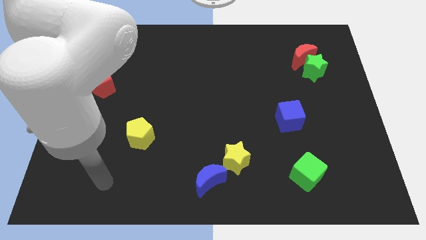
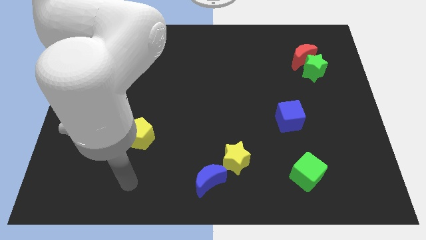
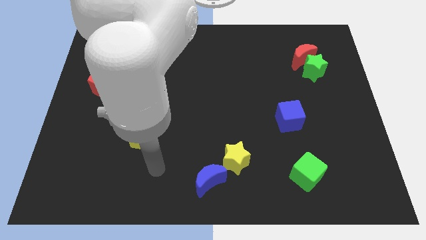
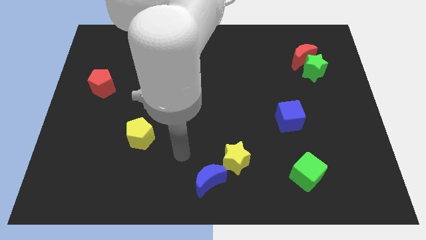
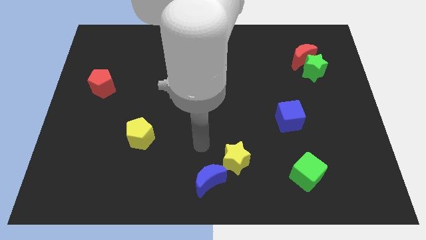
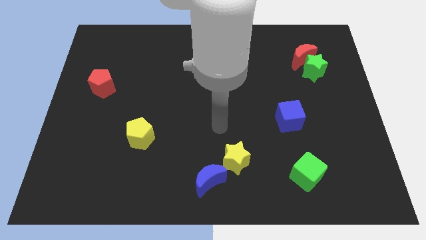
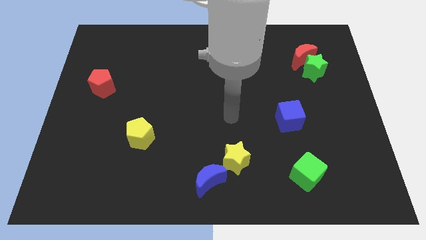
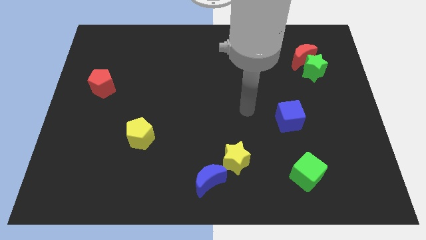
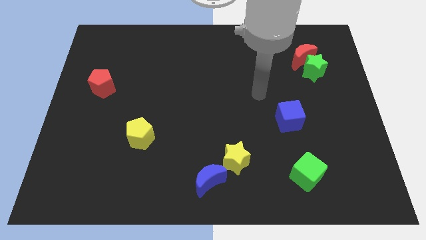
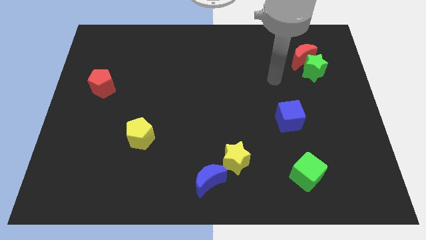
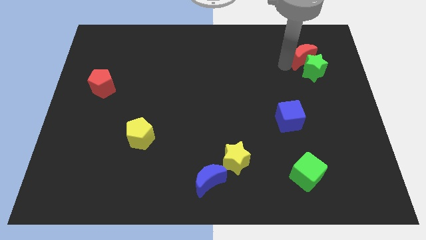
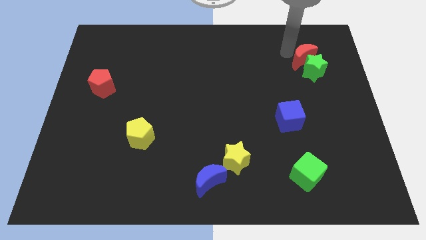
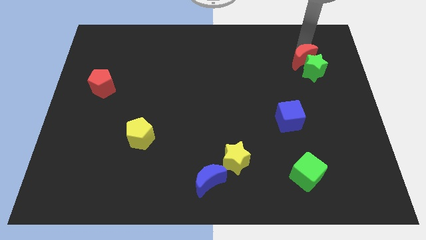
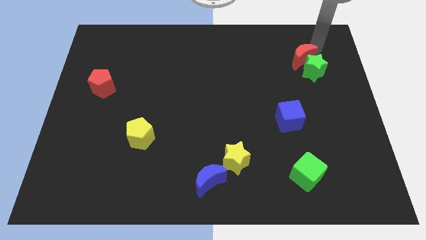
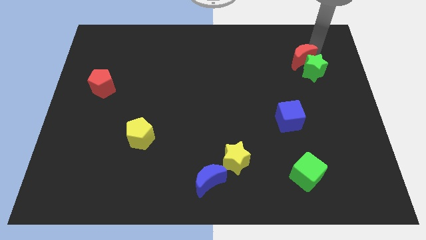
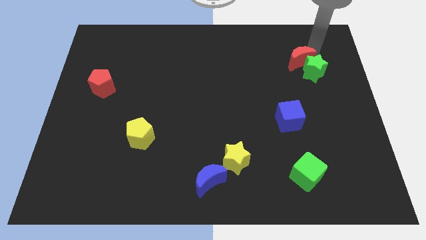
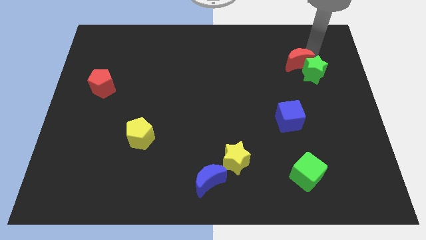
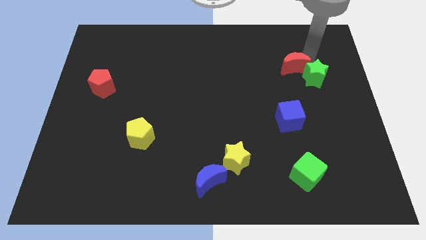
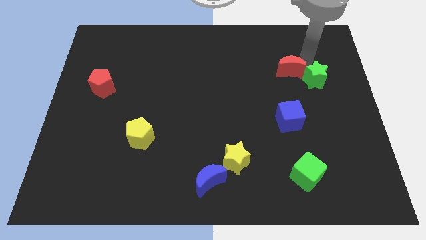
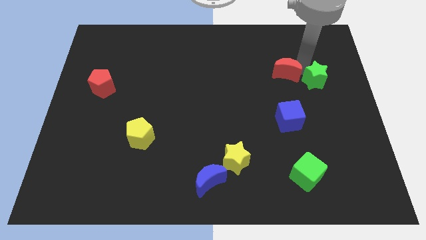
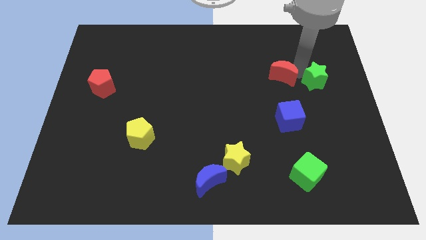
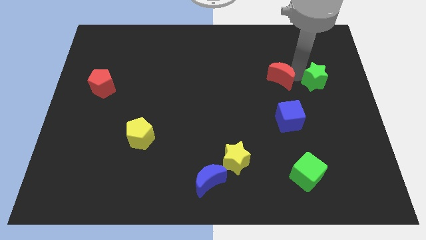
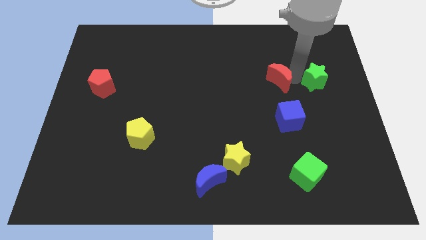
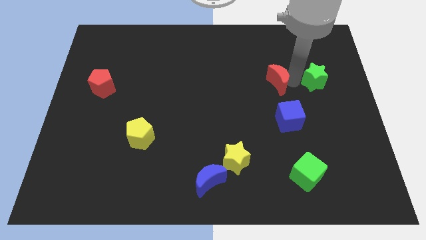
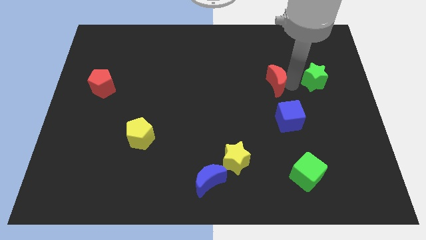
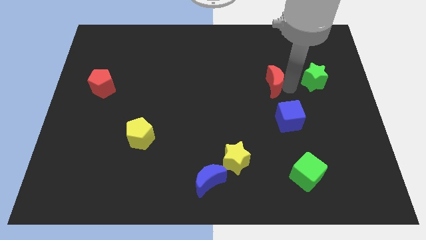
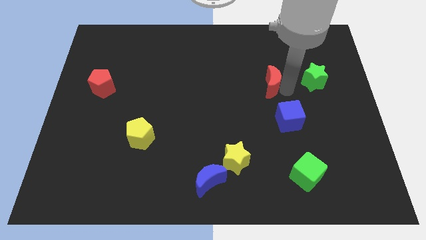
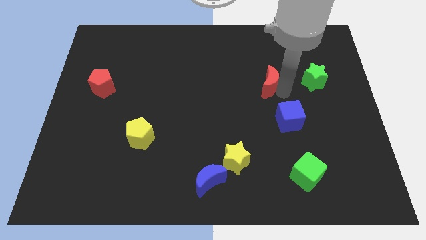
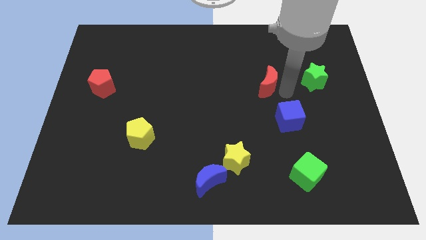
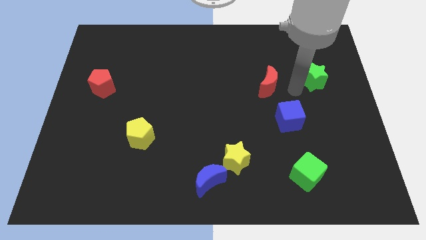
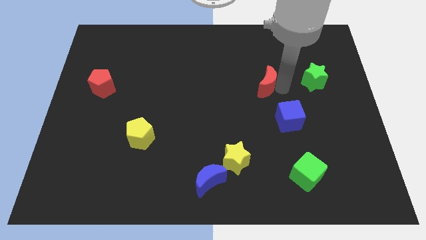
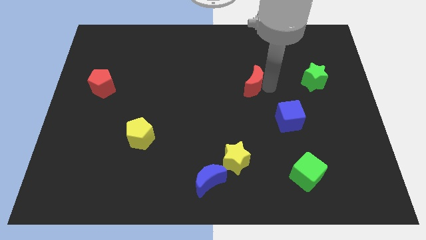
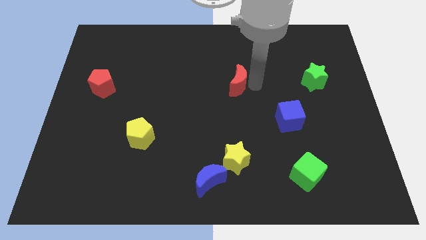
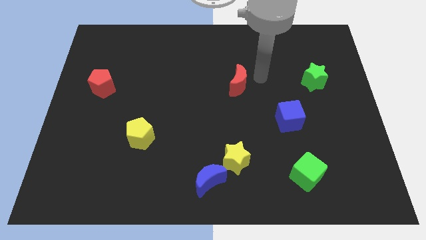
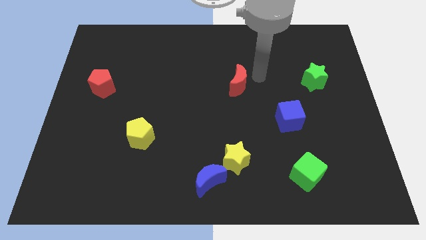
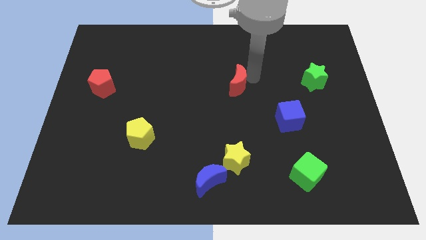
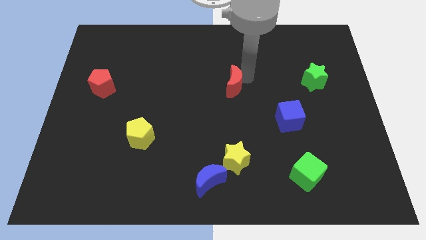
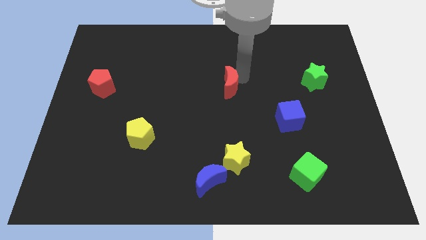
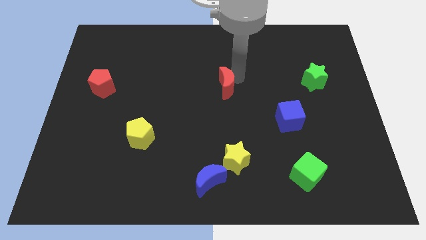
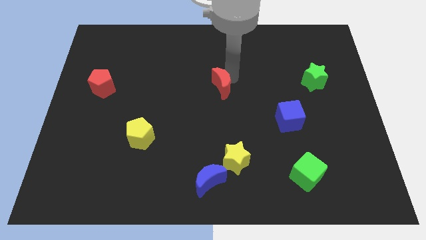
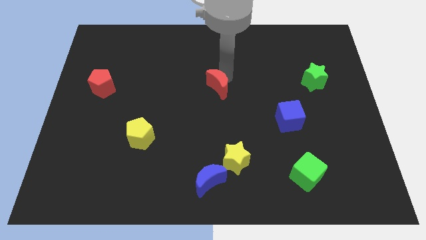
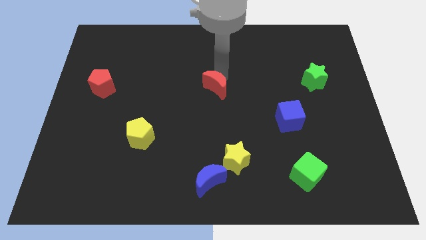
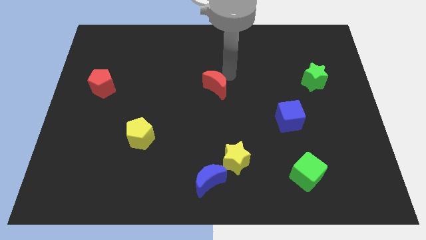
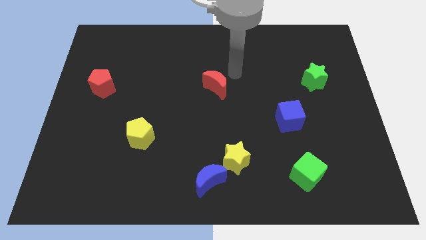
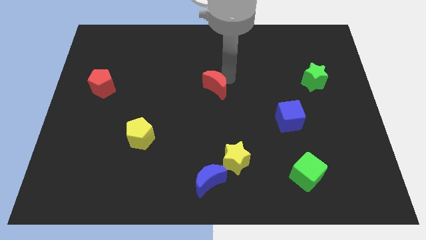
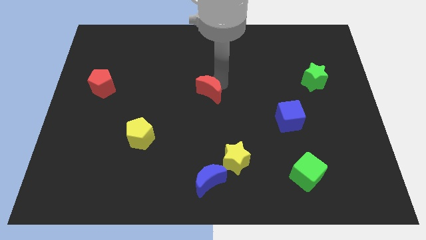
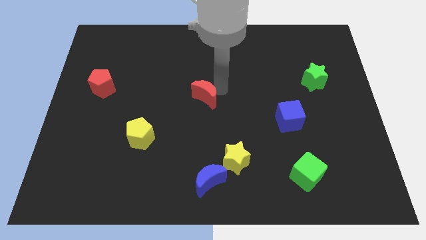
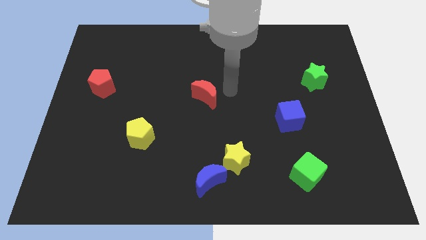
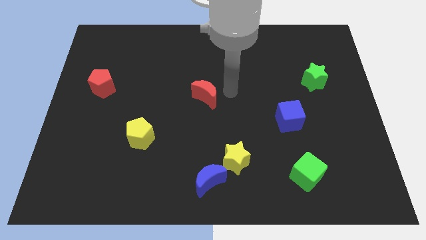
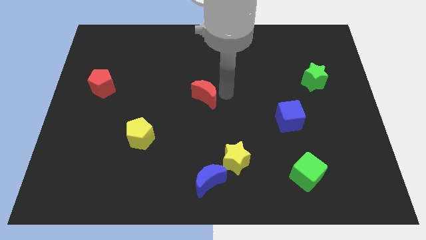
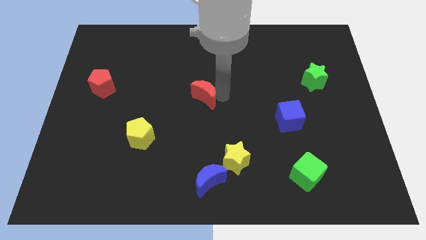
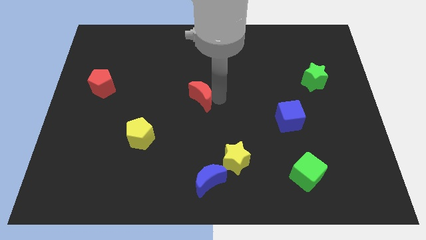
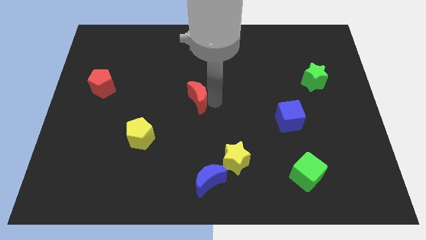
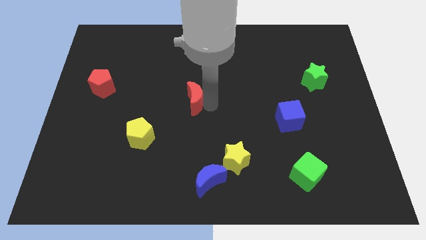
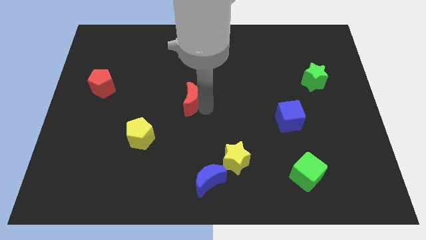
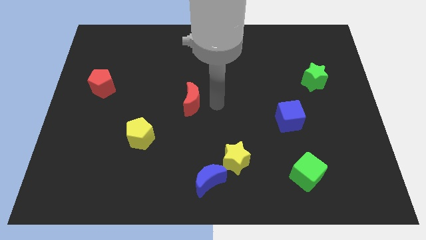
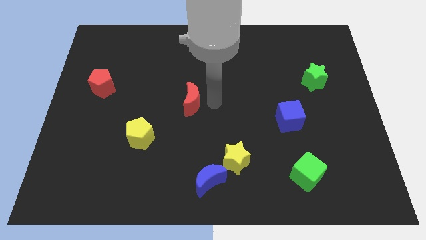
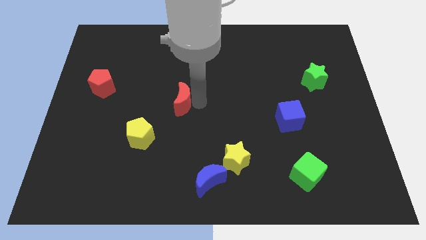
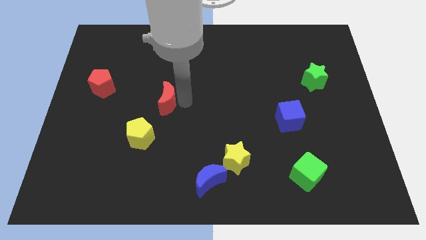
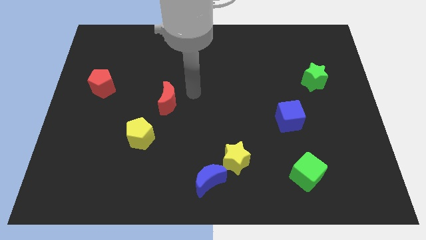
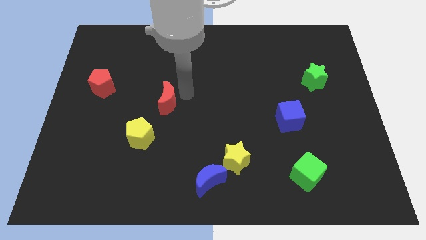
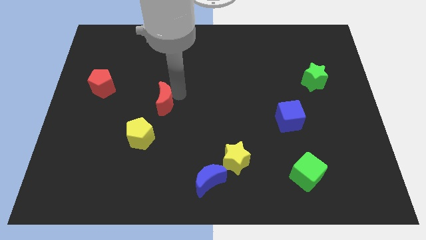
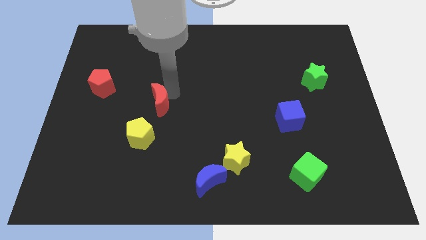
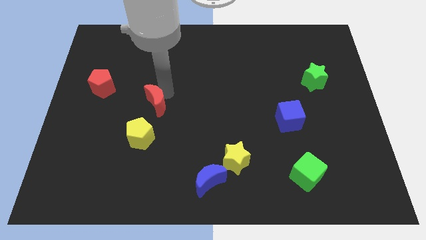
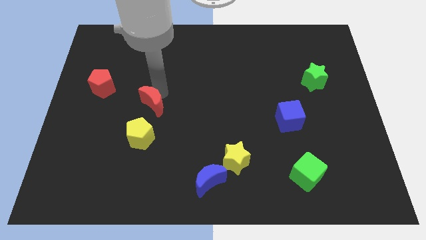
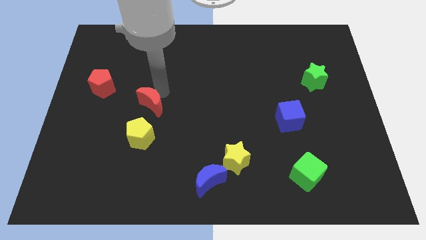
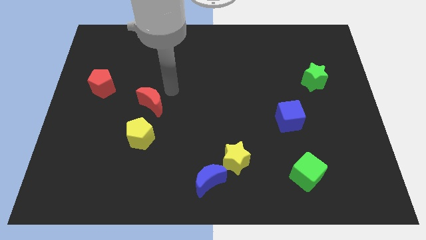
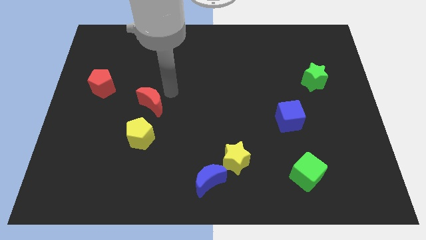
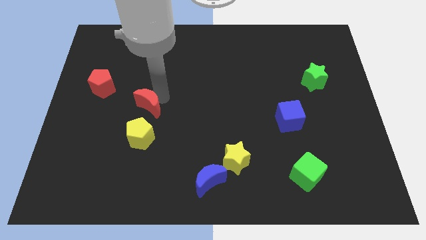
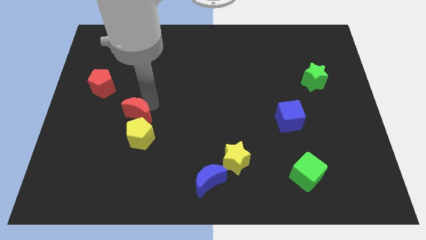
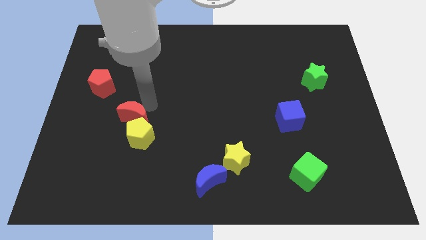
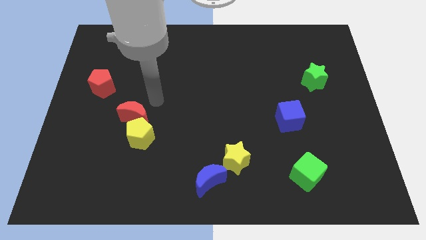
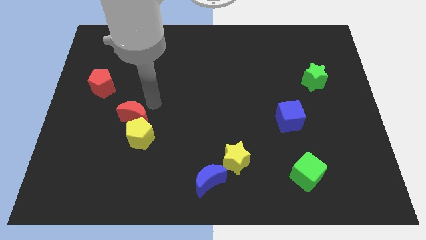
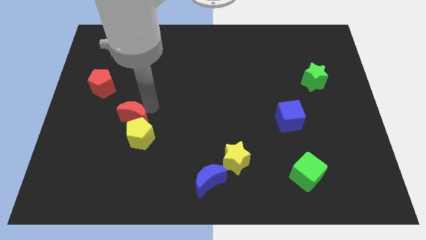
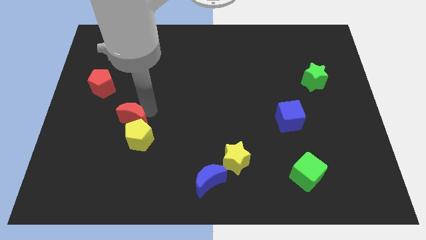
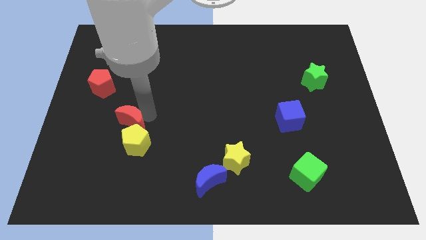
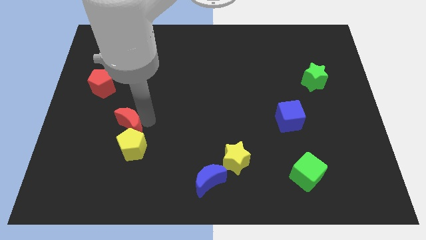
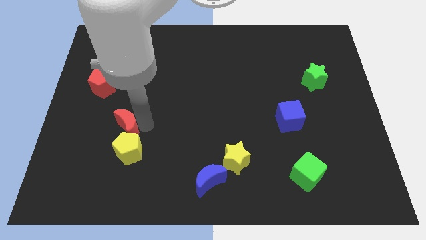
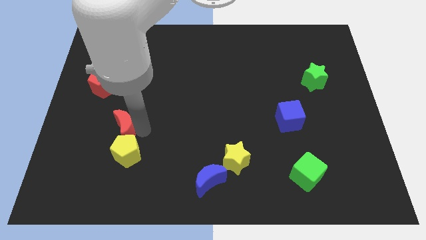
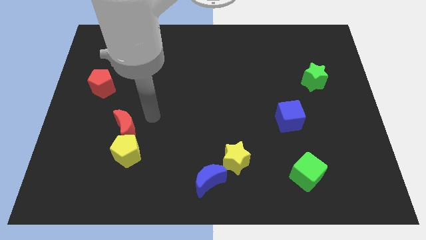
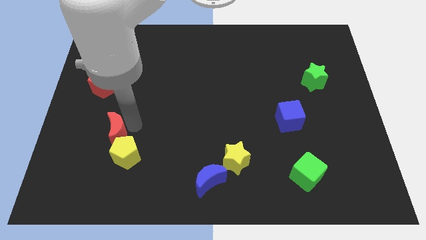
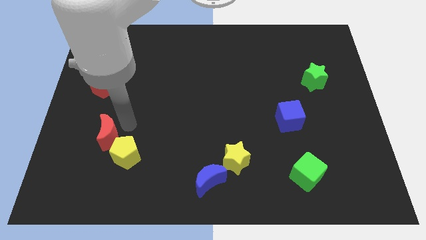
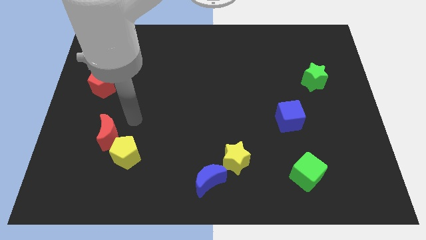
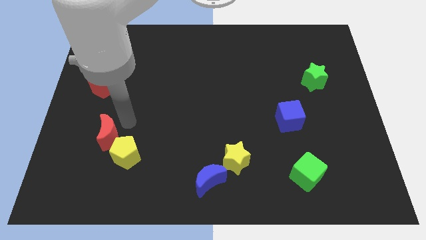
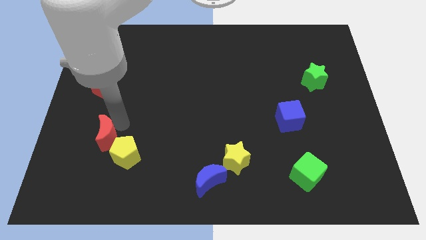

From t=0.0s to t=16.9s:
put the red moon to the left of the yellow pentagon
